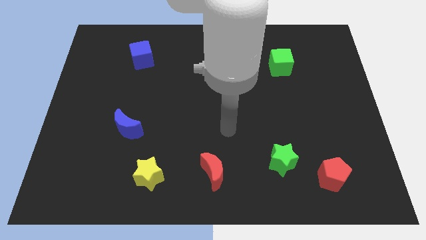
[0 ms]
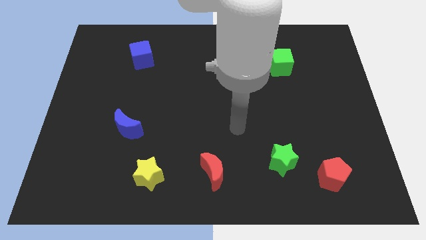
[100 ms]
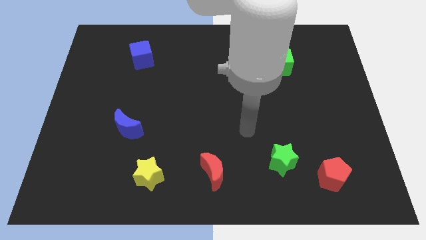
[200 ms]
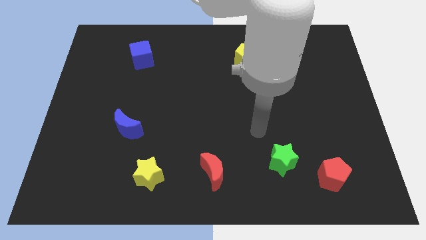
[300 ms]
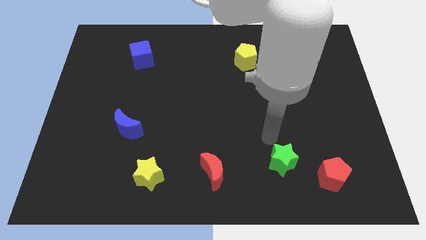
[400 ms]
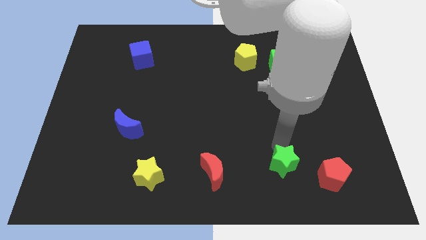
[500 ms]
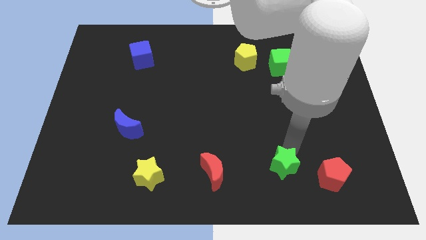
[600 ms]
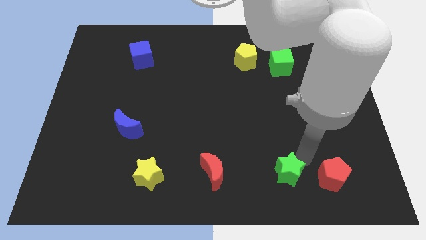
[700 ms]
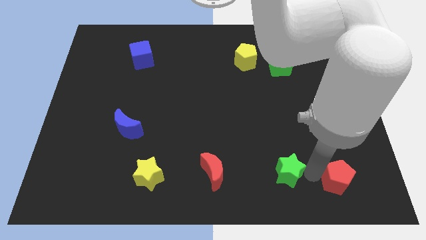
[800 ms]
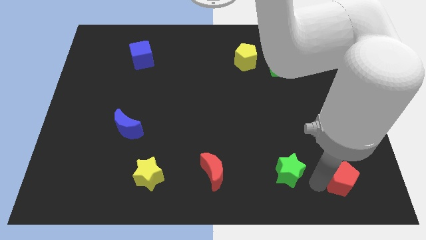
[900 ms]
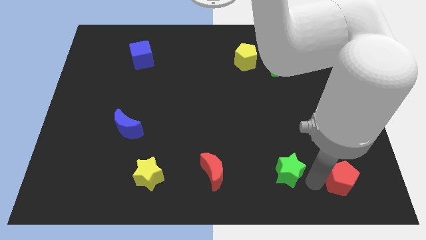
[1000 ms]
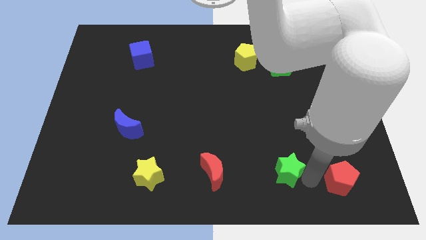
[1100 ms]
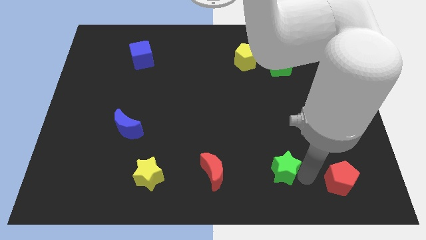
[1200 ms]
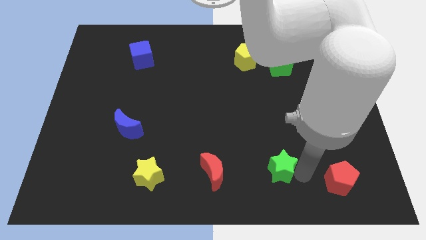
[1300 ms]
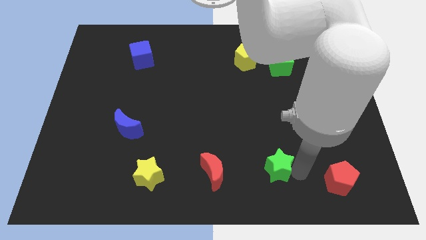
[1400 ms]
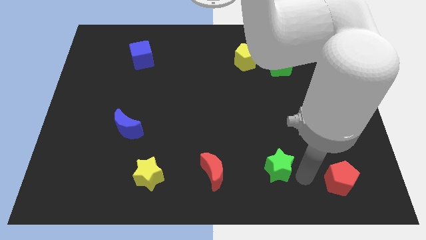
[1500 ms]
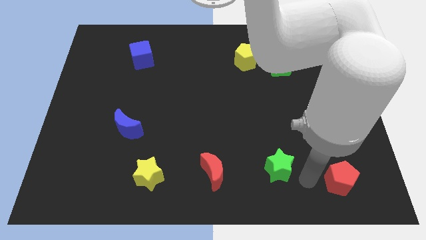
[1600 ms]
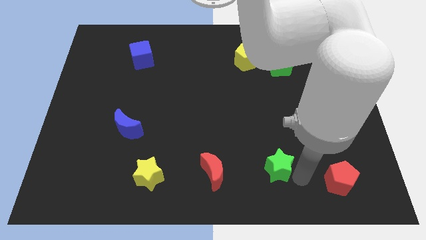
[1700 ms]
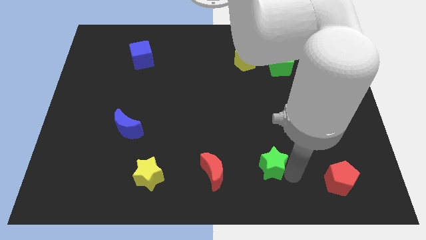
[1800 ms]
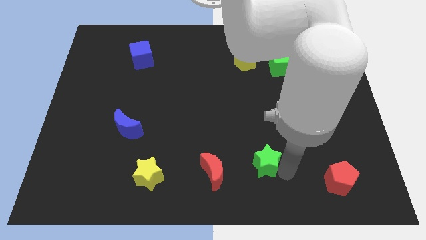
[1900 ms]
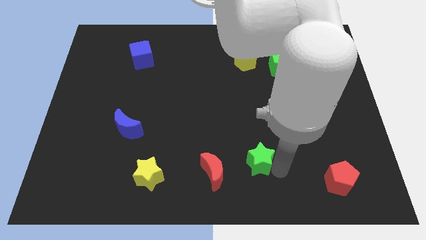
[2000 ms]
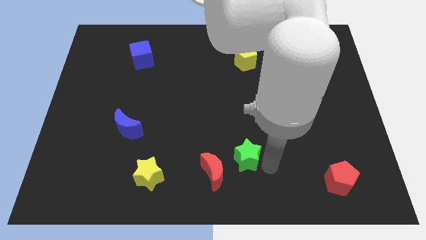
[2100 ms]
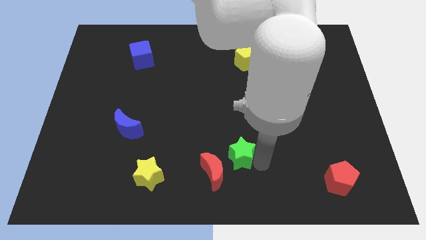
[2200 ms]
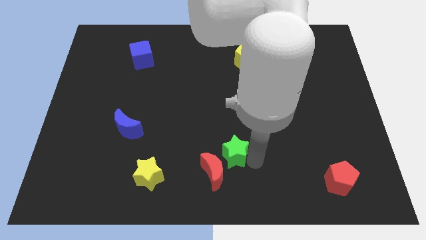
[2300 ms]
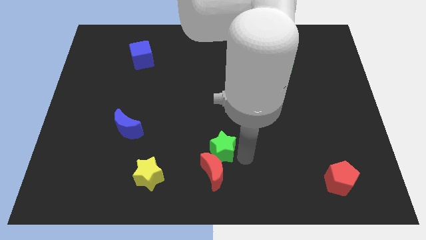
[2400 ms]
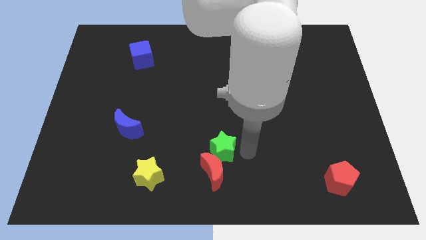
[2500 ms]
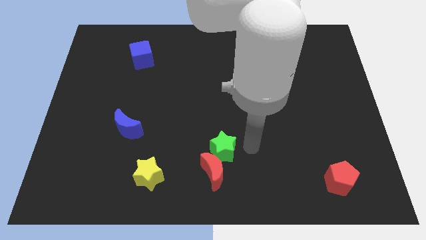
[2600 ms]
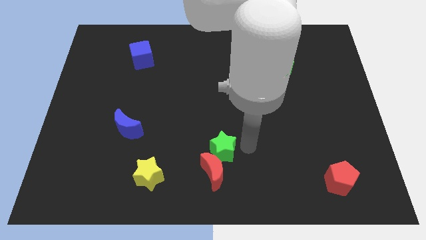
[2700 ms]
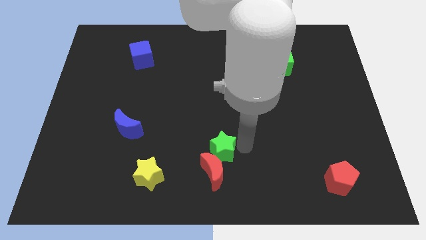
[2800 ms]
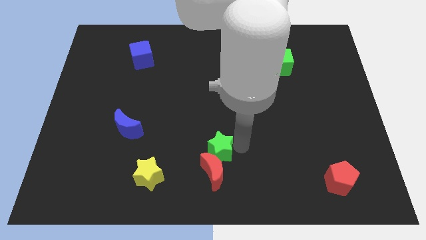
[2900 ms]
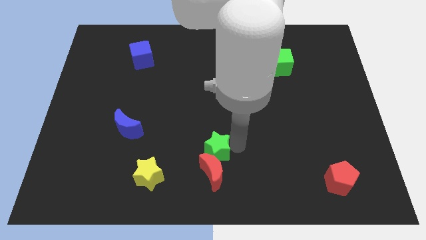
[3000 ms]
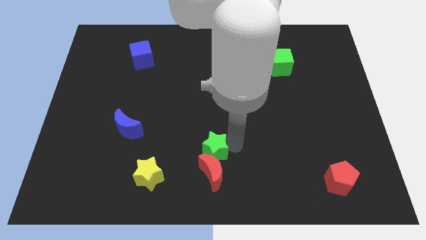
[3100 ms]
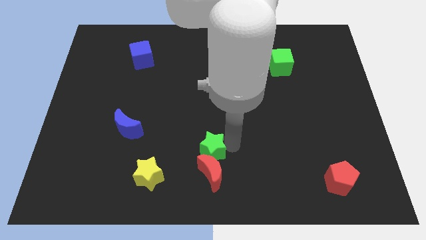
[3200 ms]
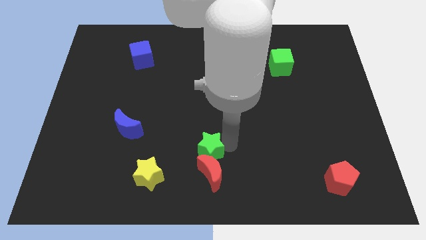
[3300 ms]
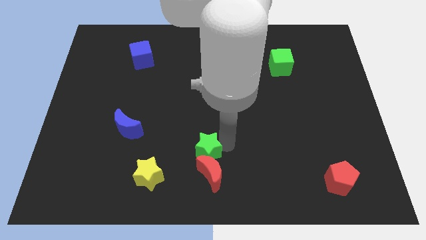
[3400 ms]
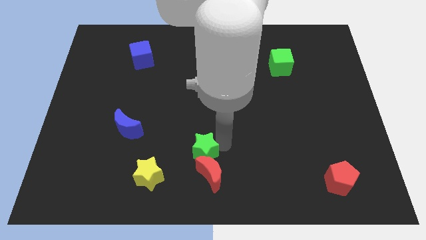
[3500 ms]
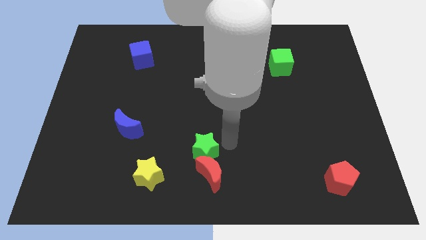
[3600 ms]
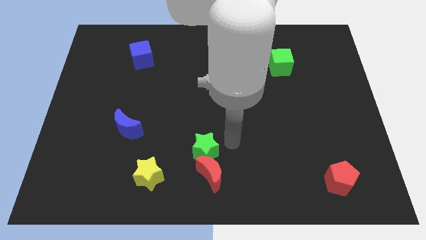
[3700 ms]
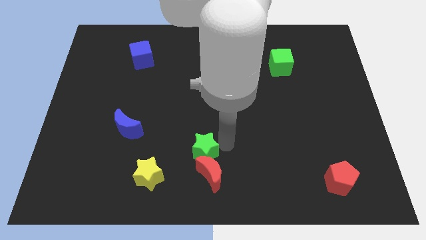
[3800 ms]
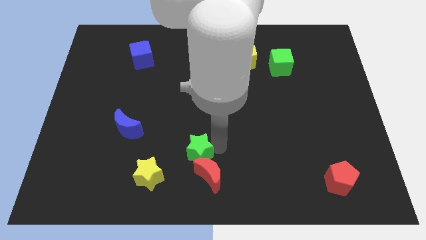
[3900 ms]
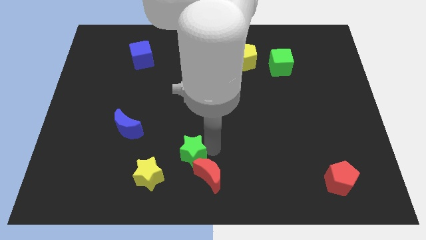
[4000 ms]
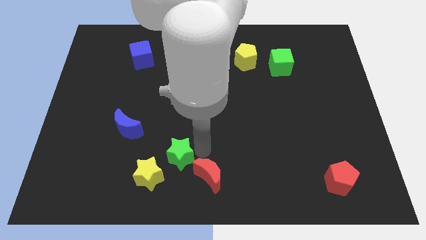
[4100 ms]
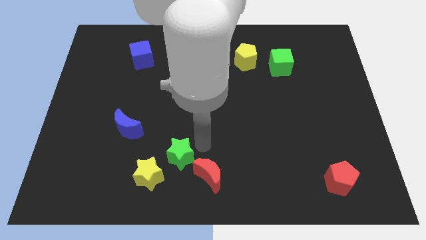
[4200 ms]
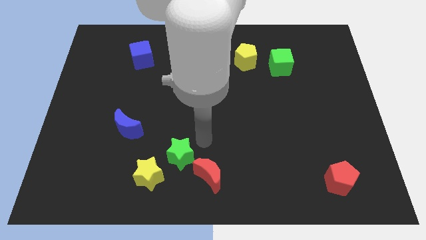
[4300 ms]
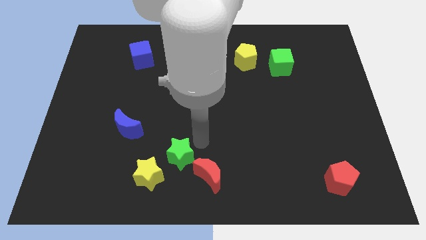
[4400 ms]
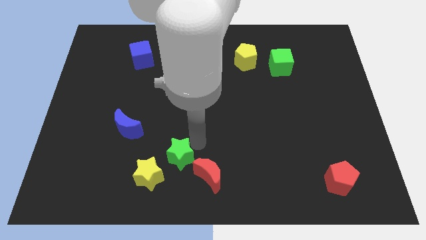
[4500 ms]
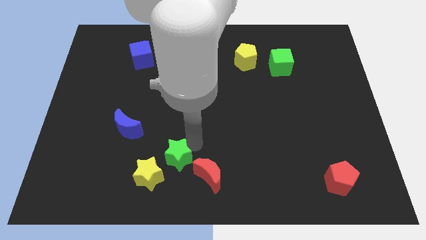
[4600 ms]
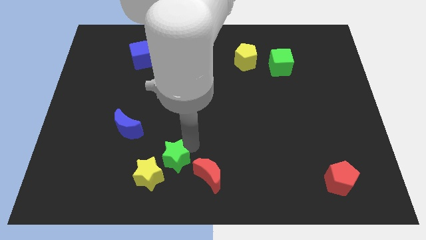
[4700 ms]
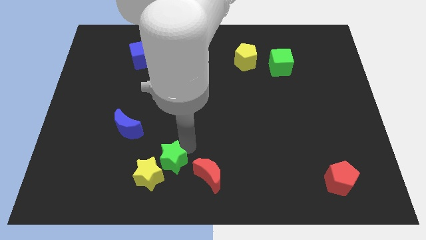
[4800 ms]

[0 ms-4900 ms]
move the green star to the yellow star

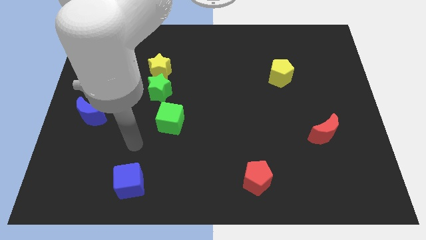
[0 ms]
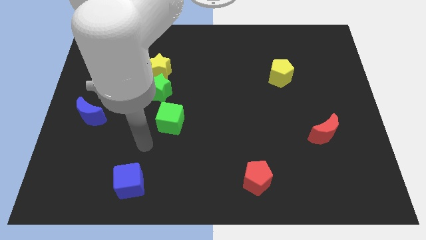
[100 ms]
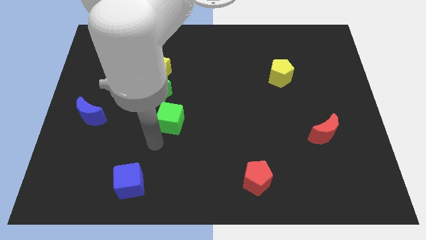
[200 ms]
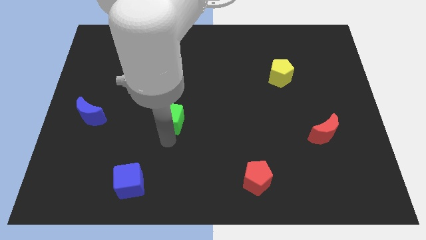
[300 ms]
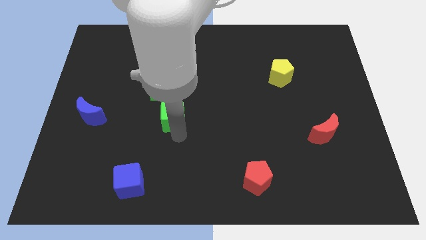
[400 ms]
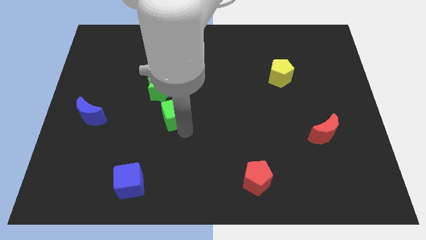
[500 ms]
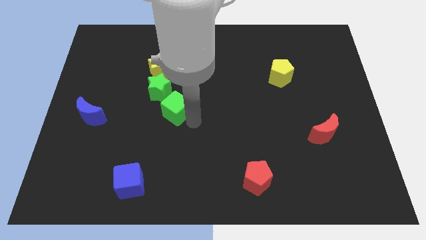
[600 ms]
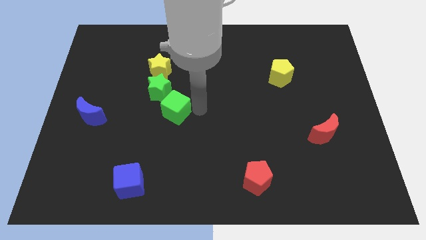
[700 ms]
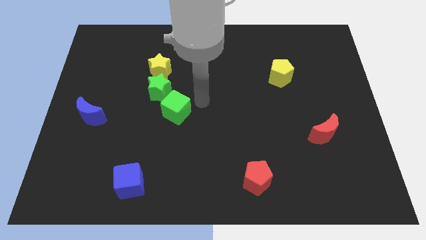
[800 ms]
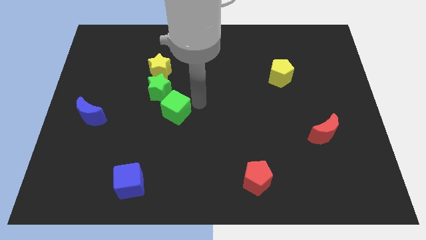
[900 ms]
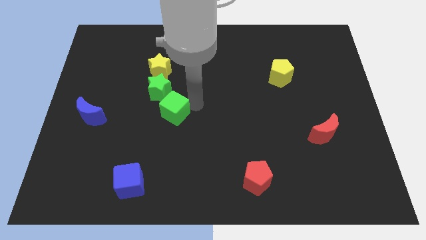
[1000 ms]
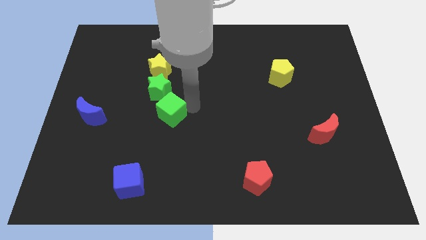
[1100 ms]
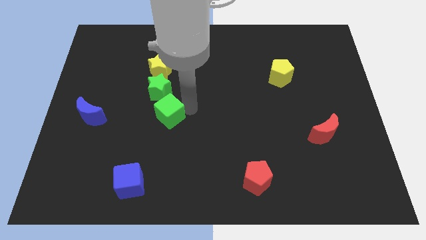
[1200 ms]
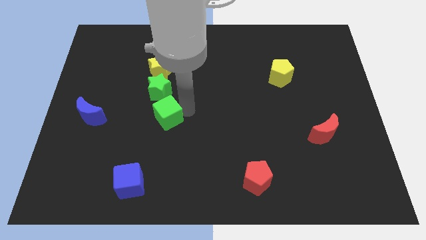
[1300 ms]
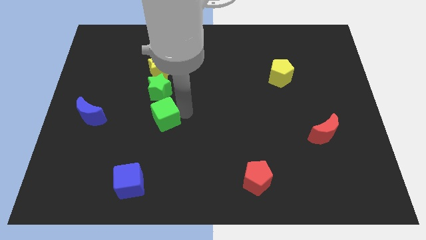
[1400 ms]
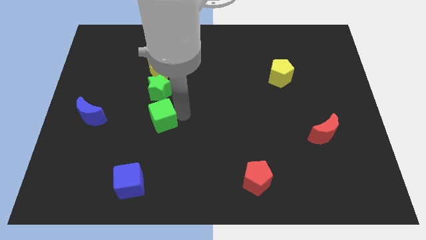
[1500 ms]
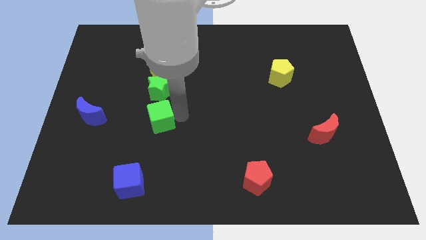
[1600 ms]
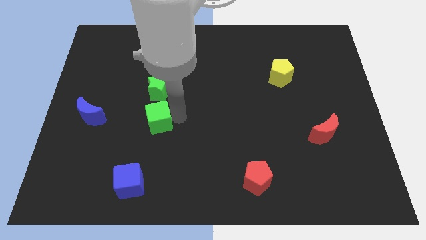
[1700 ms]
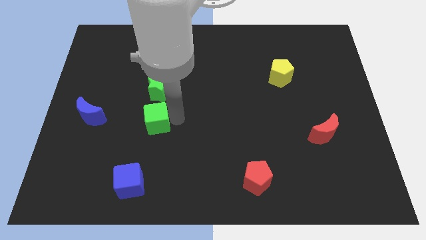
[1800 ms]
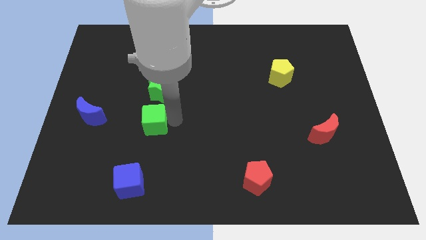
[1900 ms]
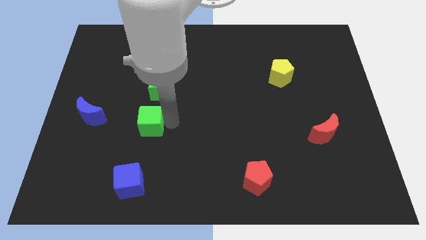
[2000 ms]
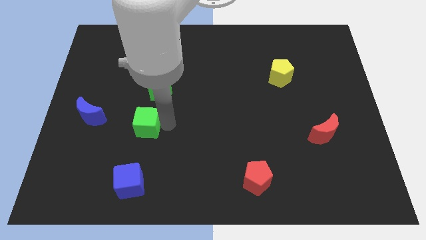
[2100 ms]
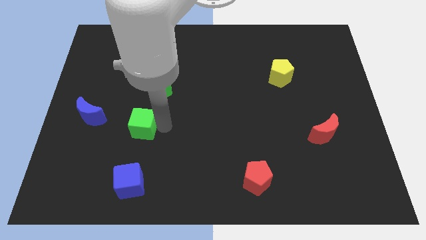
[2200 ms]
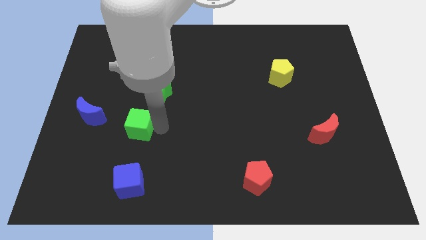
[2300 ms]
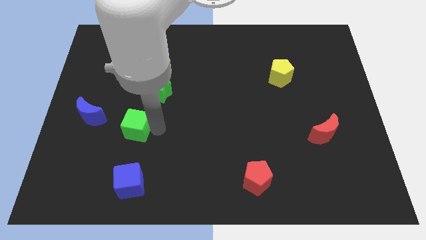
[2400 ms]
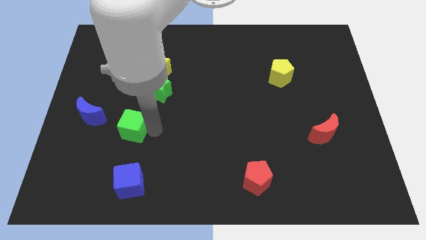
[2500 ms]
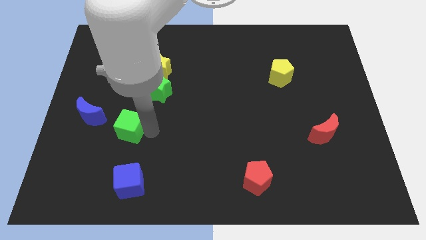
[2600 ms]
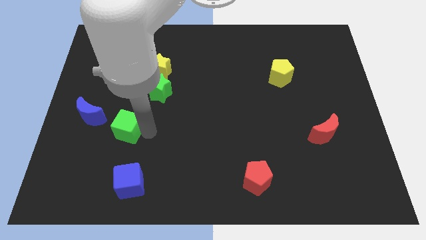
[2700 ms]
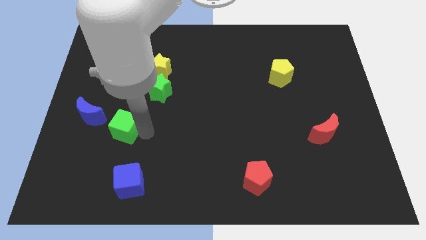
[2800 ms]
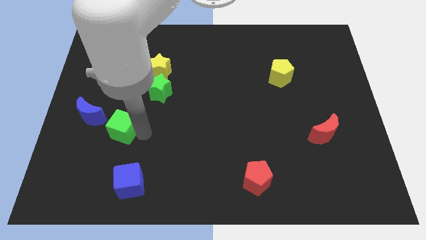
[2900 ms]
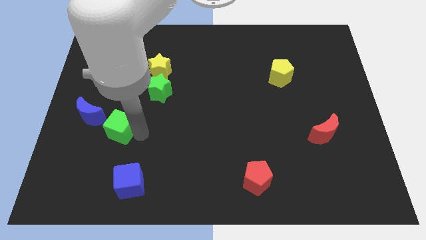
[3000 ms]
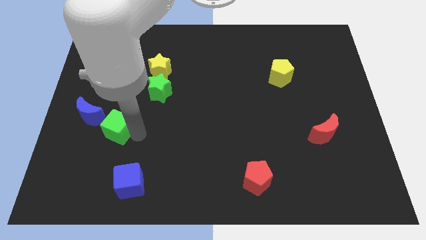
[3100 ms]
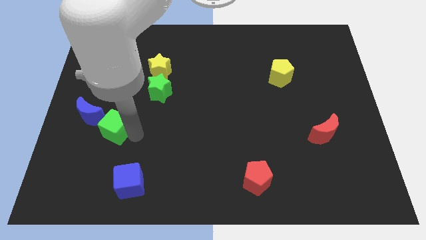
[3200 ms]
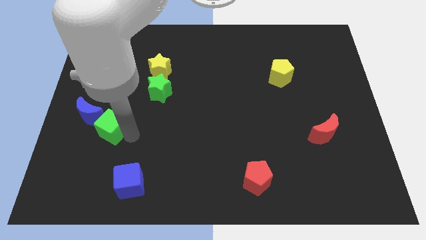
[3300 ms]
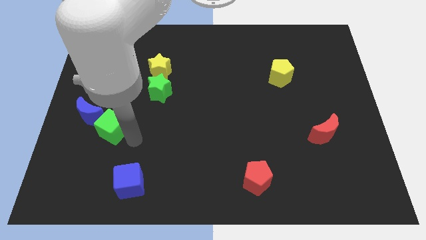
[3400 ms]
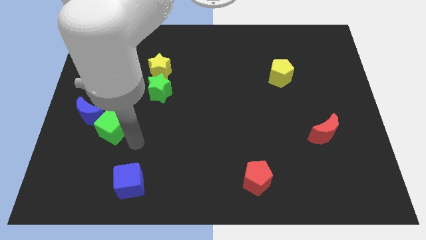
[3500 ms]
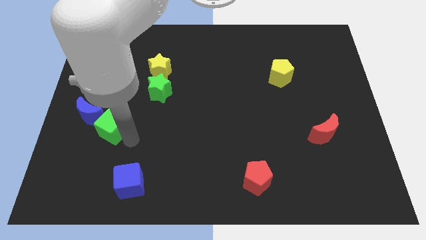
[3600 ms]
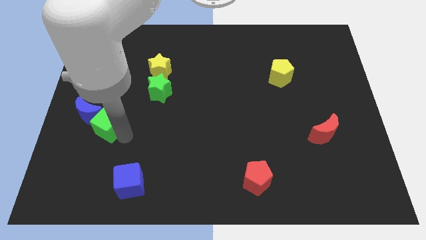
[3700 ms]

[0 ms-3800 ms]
slide the green cube to the blue moon
